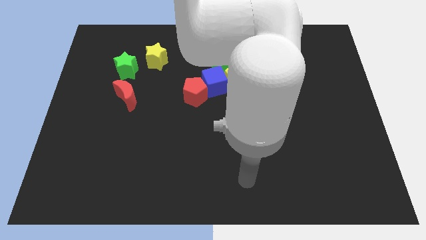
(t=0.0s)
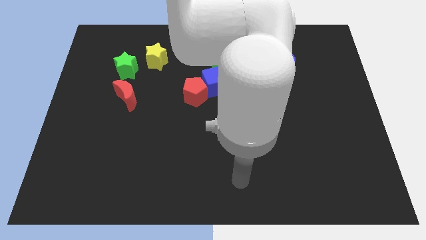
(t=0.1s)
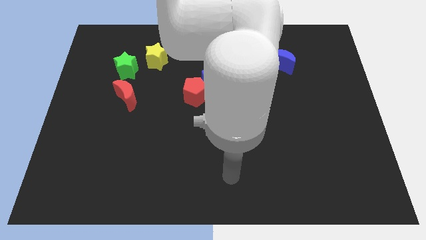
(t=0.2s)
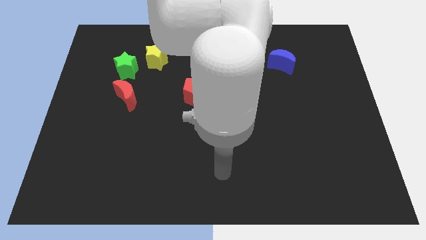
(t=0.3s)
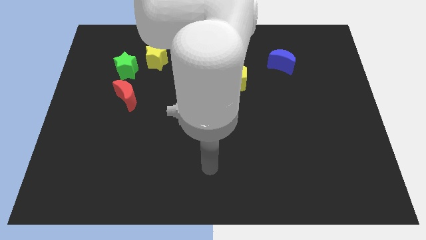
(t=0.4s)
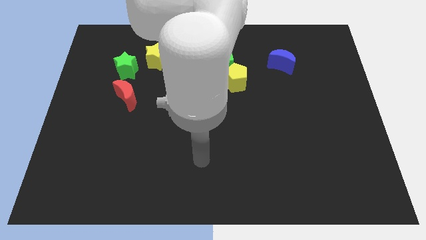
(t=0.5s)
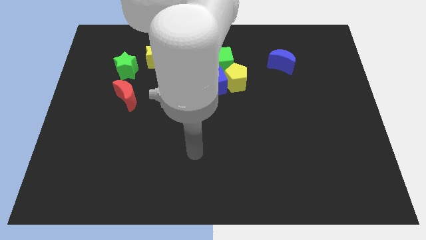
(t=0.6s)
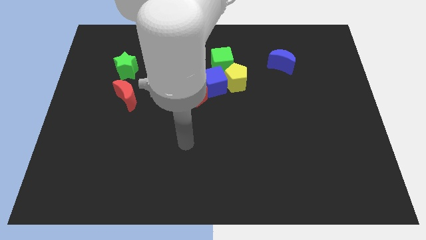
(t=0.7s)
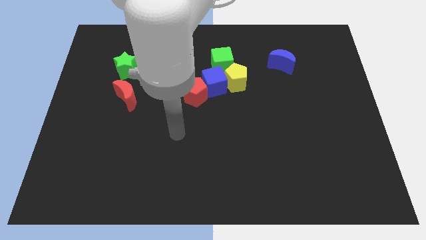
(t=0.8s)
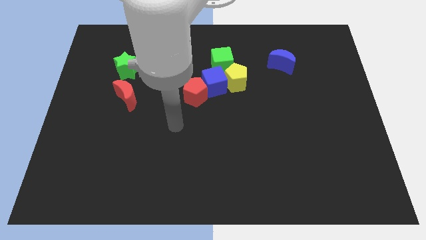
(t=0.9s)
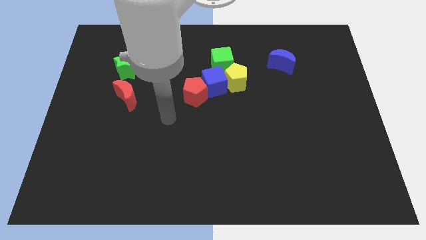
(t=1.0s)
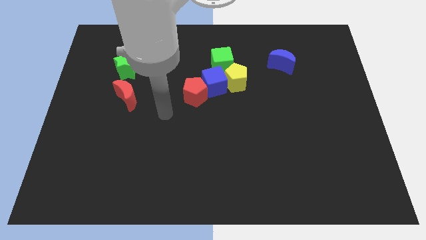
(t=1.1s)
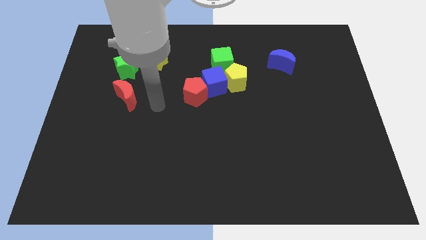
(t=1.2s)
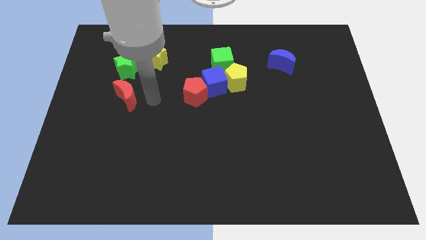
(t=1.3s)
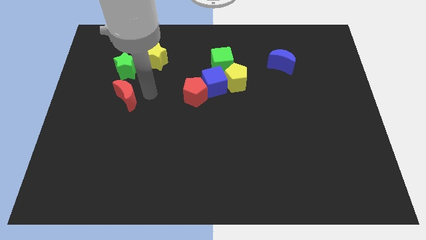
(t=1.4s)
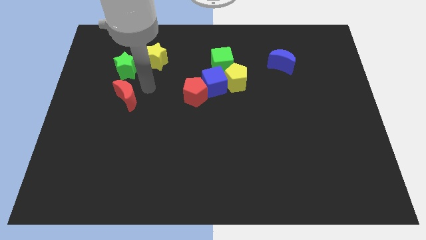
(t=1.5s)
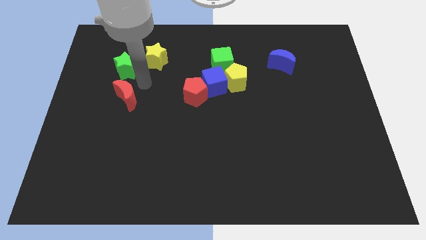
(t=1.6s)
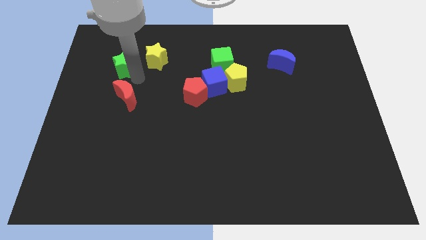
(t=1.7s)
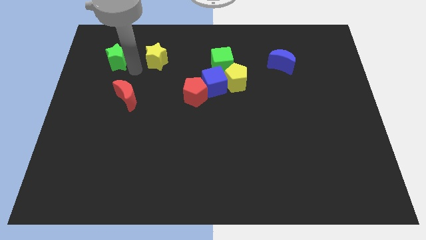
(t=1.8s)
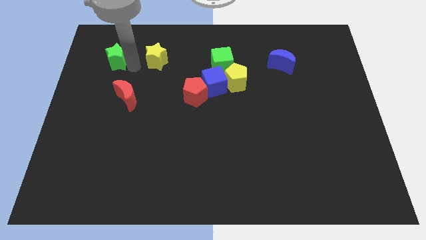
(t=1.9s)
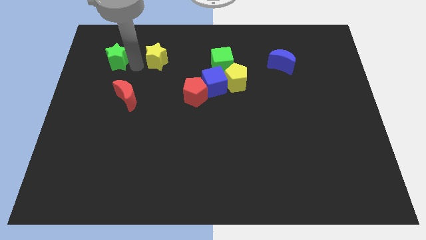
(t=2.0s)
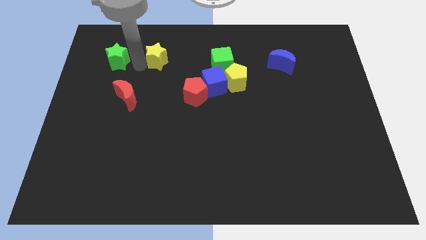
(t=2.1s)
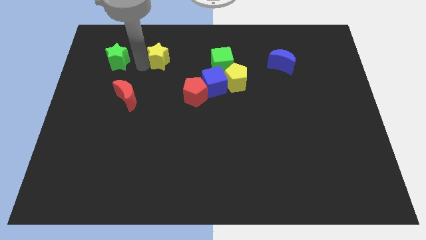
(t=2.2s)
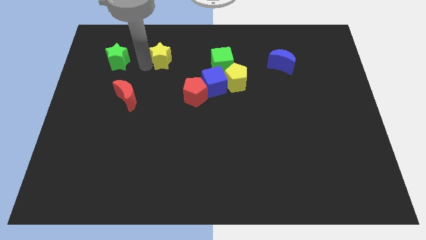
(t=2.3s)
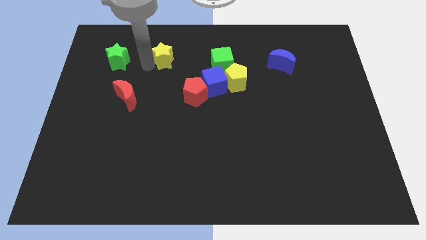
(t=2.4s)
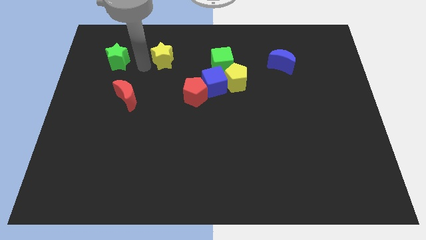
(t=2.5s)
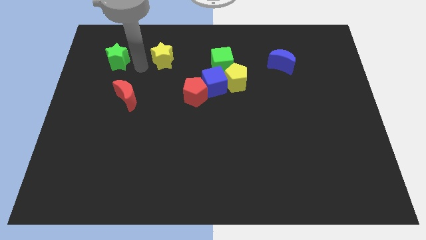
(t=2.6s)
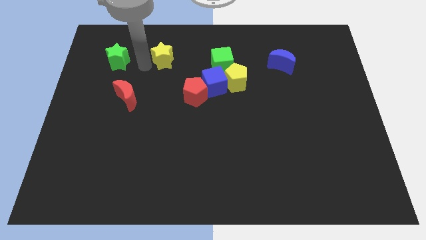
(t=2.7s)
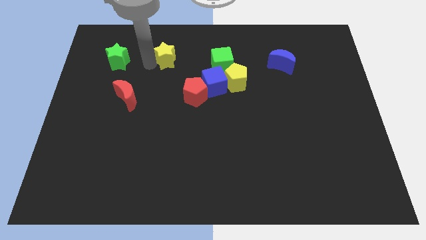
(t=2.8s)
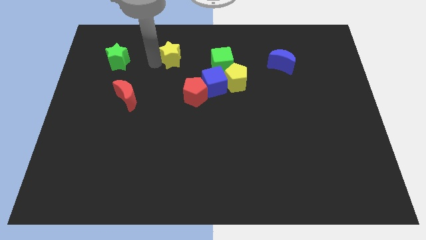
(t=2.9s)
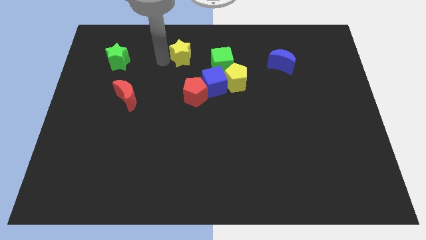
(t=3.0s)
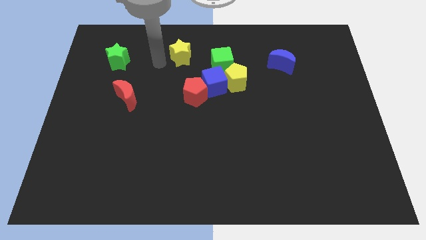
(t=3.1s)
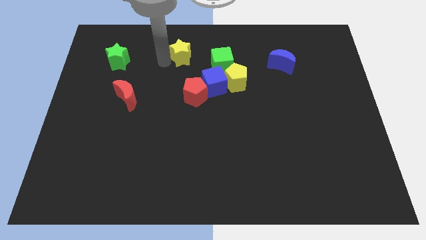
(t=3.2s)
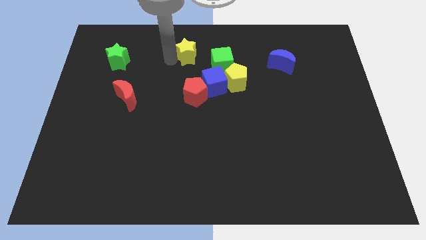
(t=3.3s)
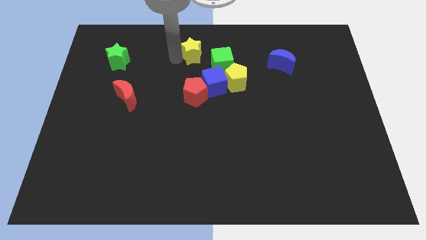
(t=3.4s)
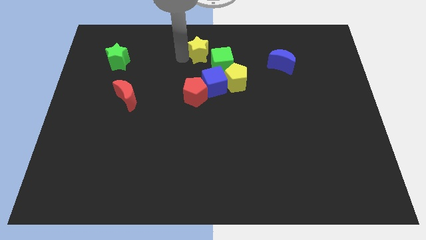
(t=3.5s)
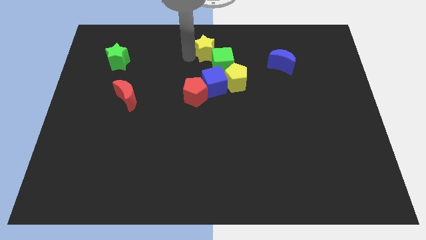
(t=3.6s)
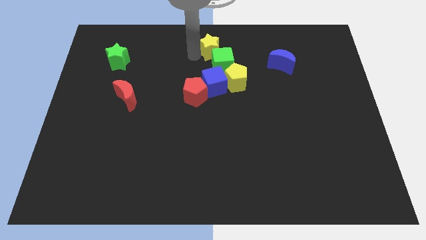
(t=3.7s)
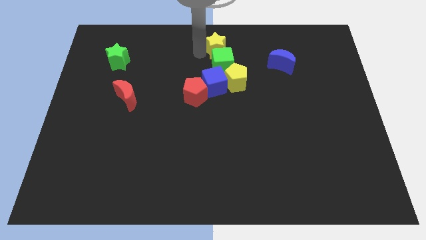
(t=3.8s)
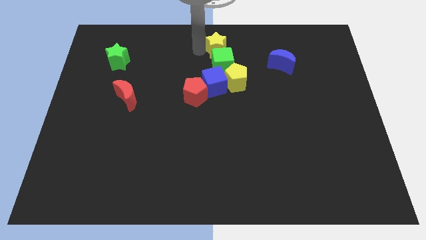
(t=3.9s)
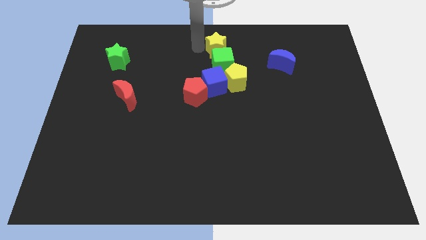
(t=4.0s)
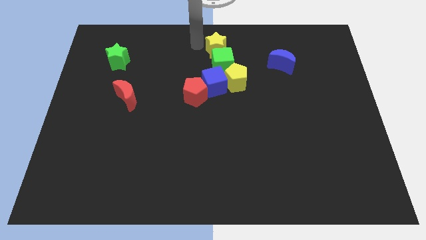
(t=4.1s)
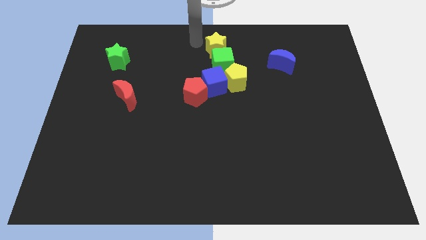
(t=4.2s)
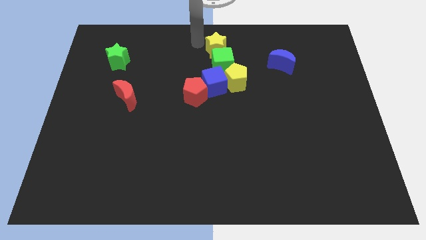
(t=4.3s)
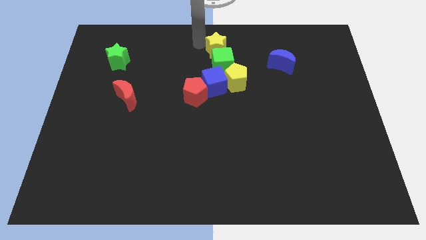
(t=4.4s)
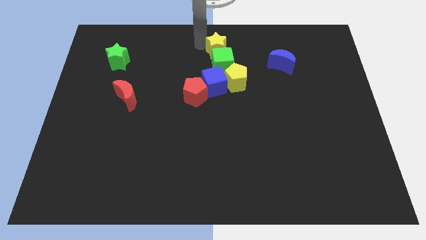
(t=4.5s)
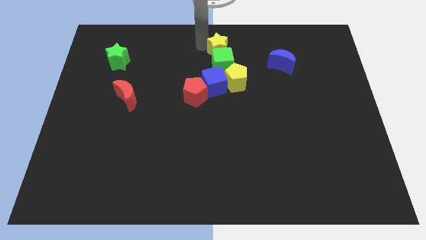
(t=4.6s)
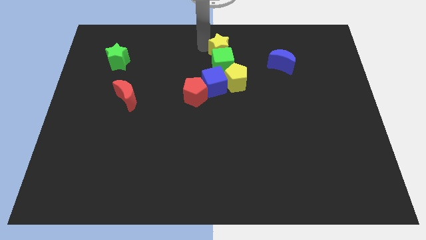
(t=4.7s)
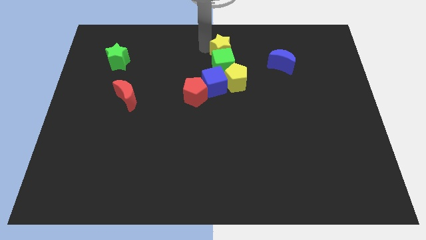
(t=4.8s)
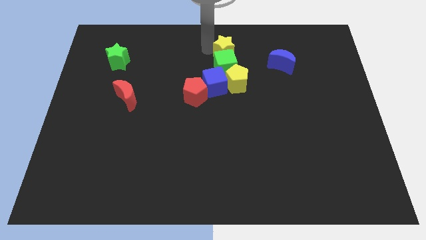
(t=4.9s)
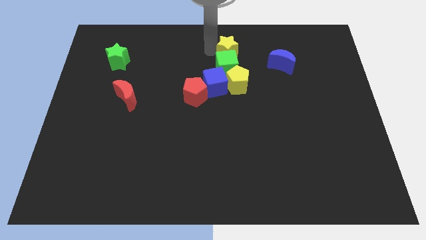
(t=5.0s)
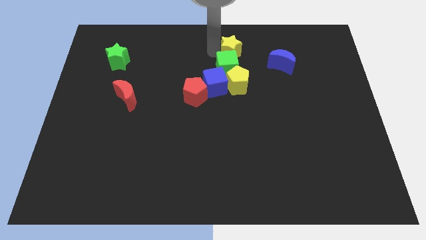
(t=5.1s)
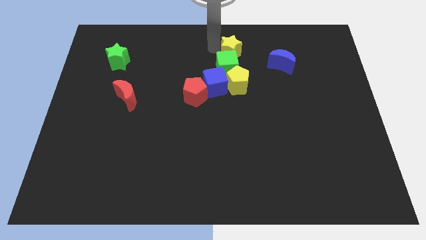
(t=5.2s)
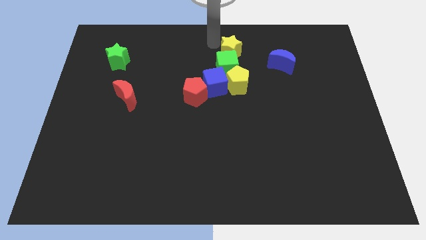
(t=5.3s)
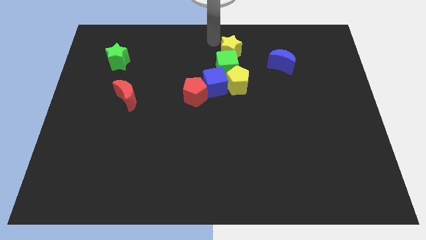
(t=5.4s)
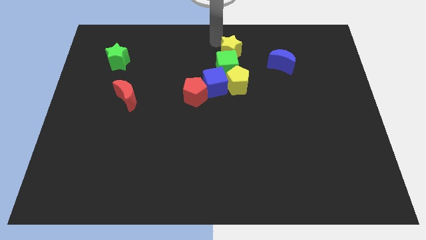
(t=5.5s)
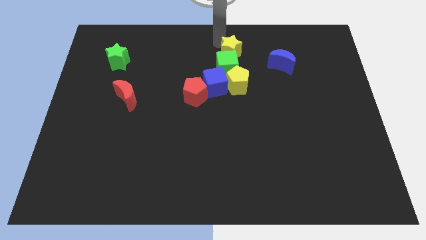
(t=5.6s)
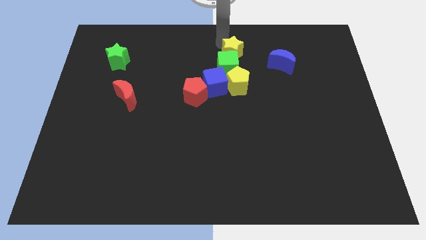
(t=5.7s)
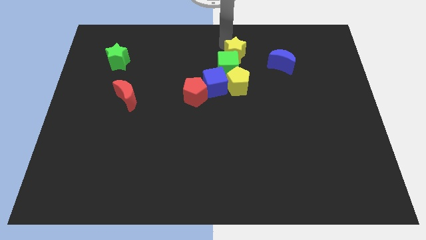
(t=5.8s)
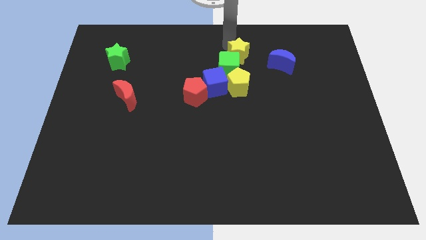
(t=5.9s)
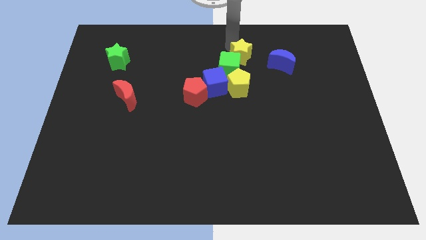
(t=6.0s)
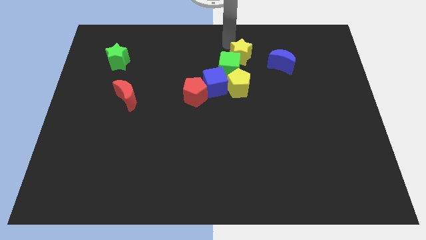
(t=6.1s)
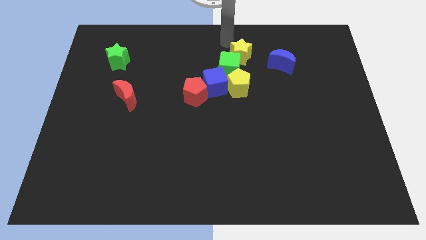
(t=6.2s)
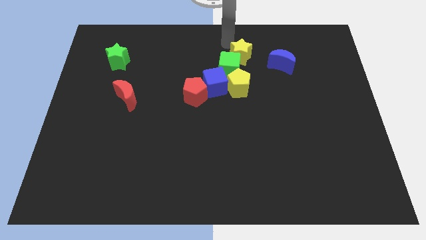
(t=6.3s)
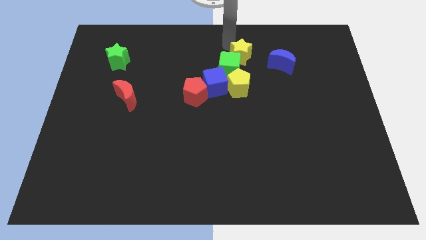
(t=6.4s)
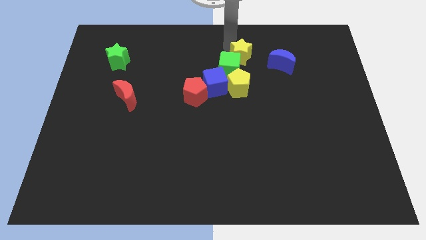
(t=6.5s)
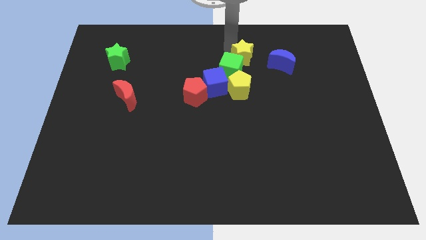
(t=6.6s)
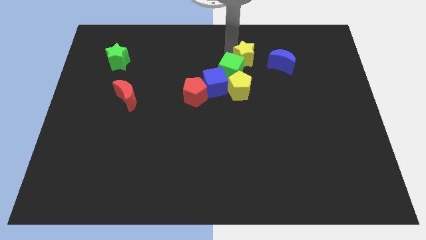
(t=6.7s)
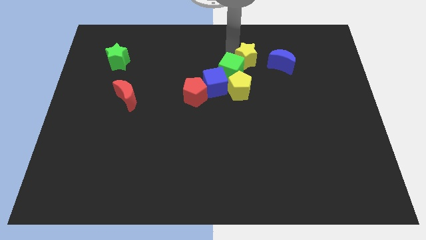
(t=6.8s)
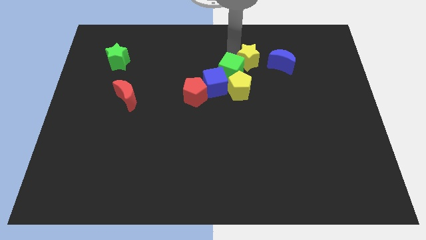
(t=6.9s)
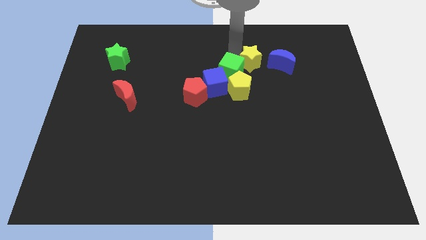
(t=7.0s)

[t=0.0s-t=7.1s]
put the yellow star to the top right of the yellow pentagon
